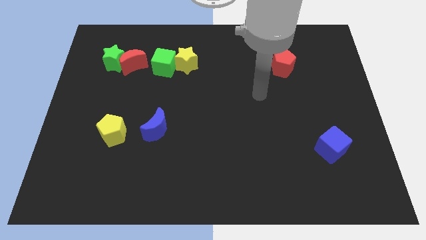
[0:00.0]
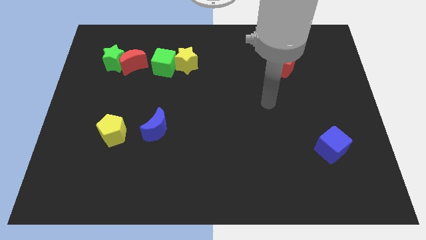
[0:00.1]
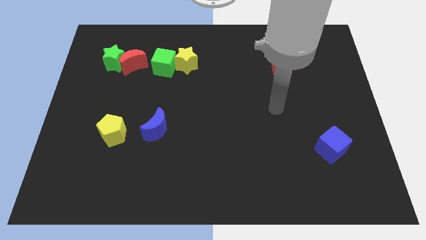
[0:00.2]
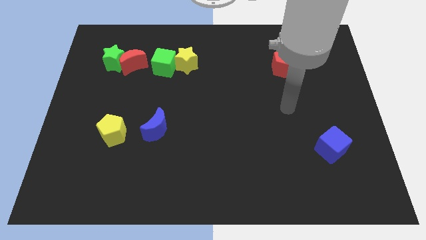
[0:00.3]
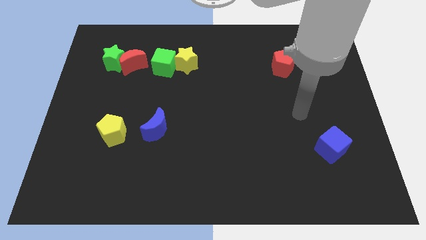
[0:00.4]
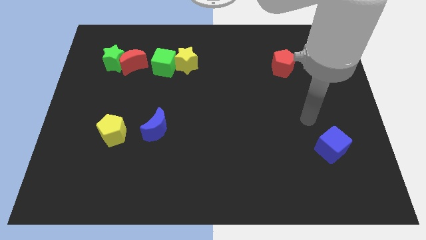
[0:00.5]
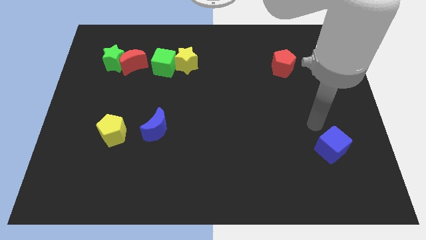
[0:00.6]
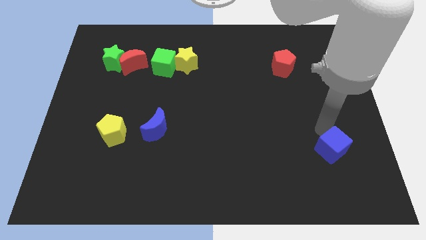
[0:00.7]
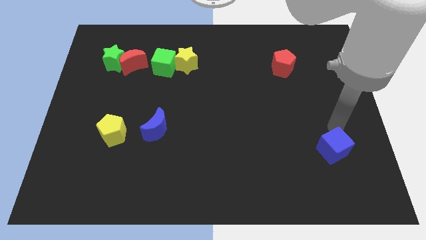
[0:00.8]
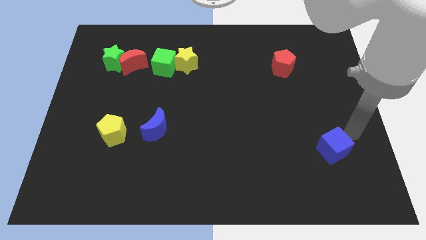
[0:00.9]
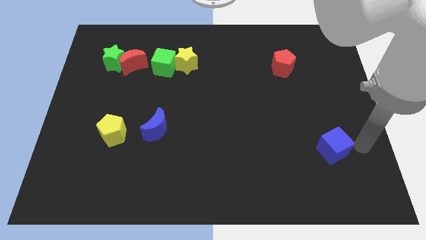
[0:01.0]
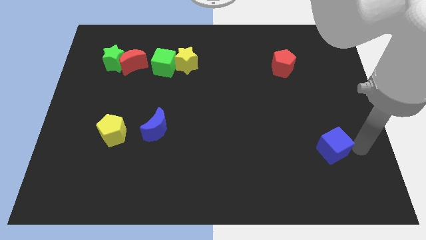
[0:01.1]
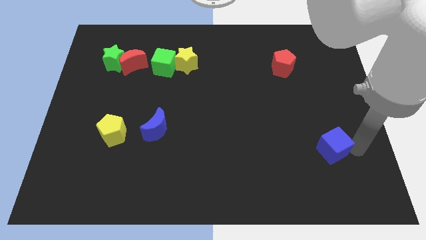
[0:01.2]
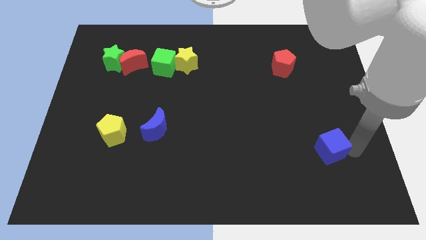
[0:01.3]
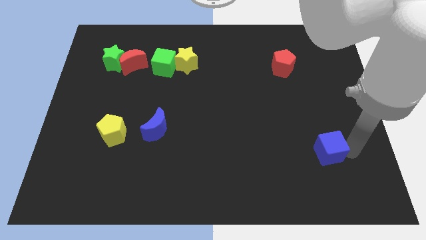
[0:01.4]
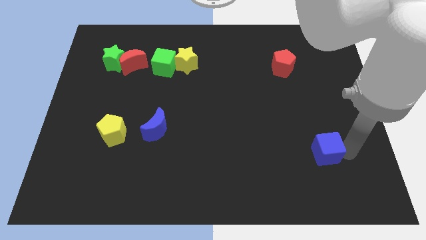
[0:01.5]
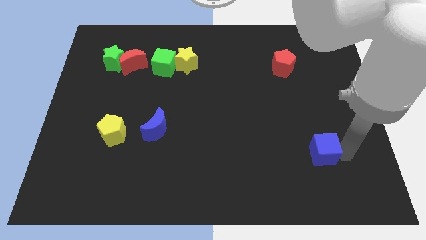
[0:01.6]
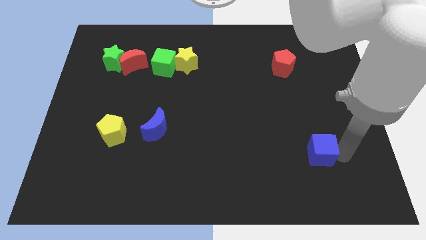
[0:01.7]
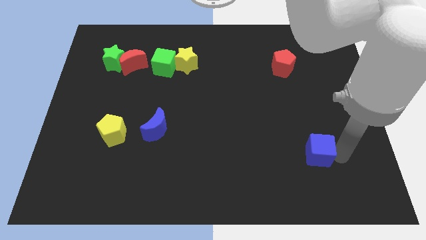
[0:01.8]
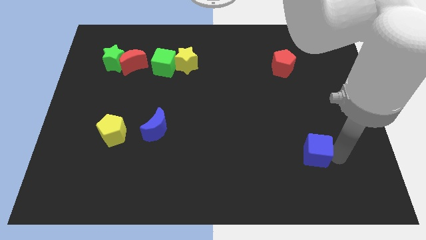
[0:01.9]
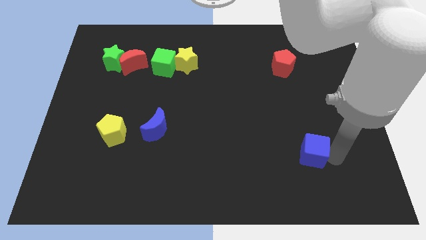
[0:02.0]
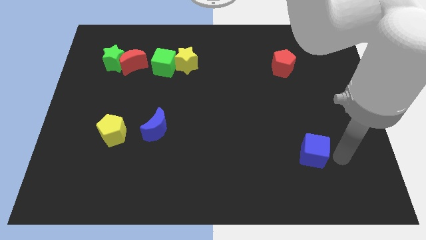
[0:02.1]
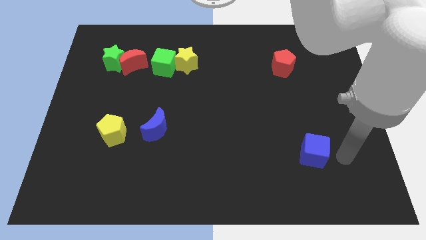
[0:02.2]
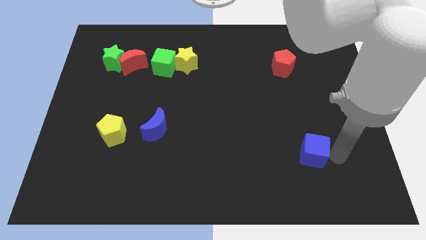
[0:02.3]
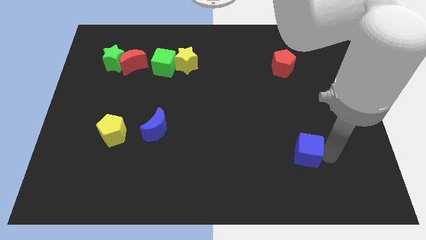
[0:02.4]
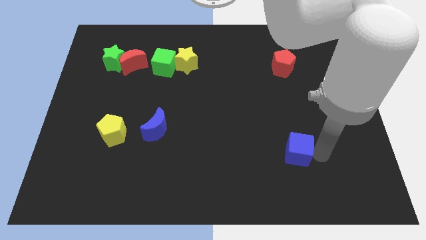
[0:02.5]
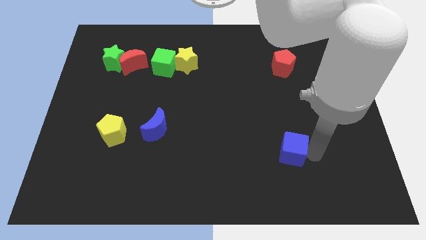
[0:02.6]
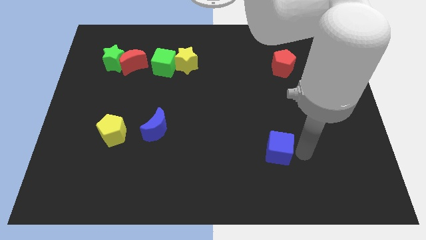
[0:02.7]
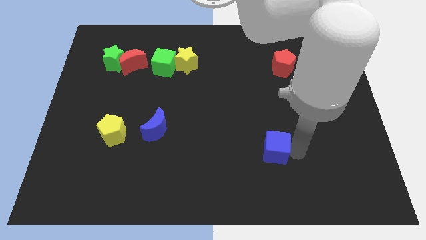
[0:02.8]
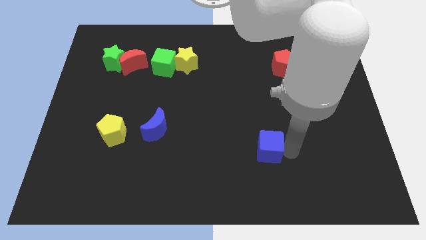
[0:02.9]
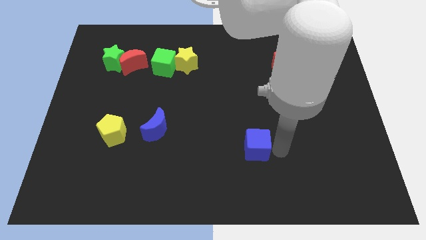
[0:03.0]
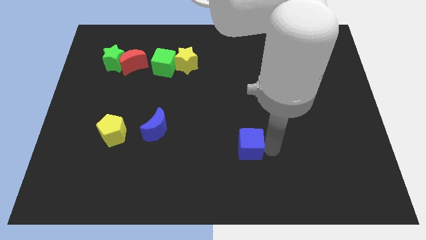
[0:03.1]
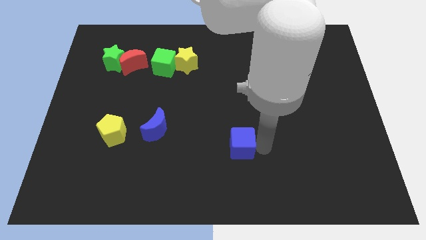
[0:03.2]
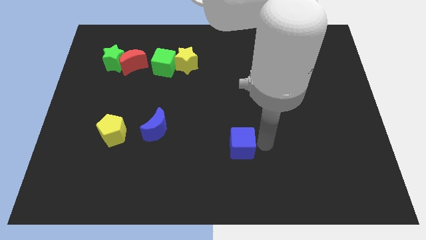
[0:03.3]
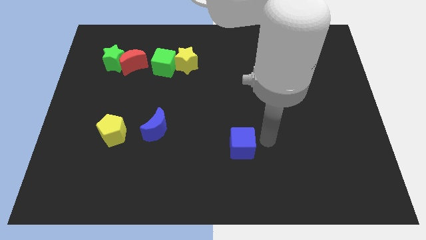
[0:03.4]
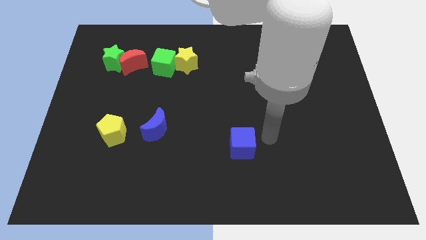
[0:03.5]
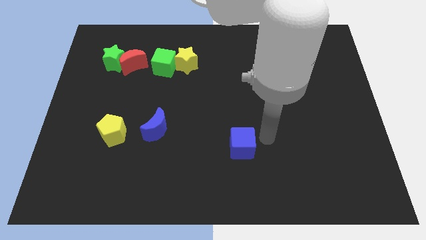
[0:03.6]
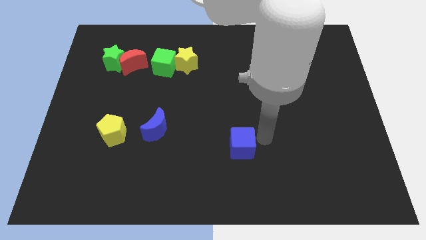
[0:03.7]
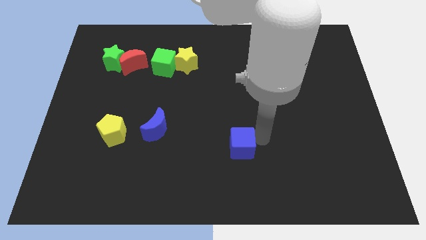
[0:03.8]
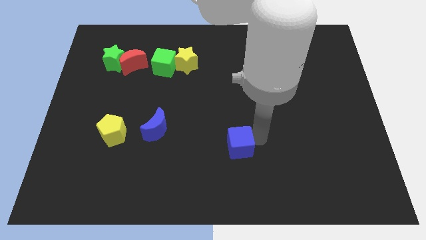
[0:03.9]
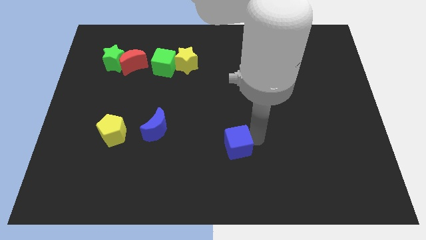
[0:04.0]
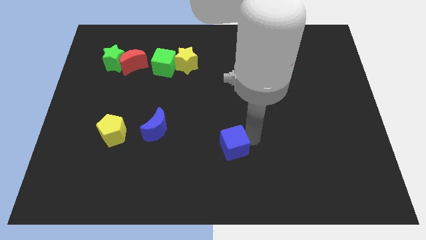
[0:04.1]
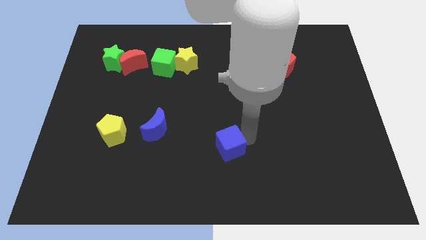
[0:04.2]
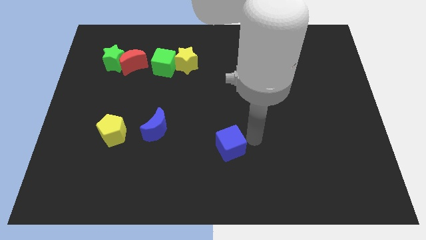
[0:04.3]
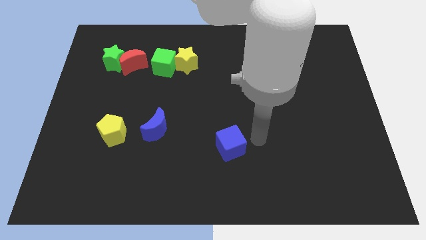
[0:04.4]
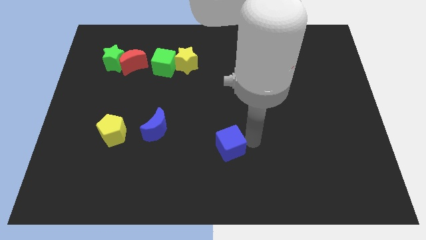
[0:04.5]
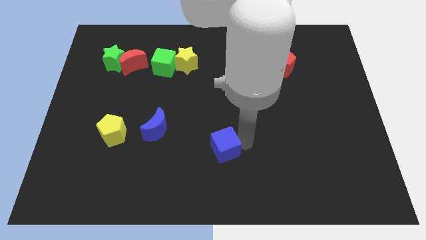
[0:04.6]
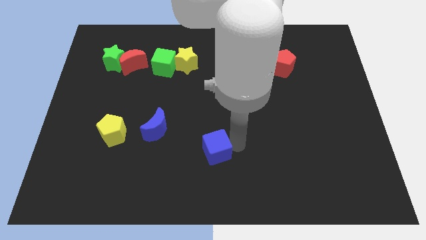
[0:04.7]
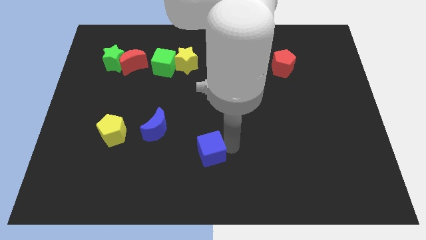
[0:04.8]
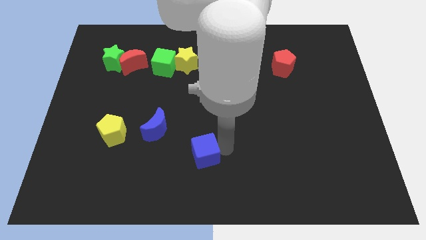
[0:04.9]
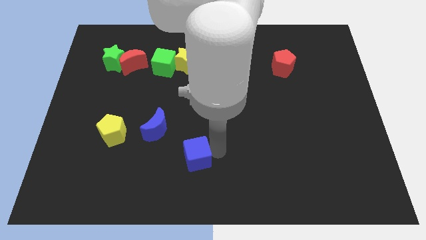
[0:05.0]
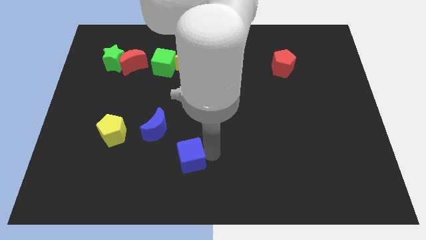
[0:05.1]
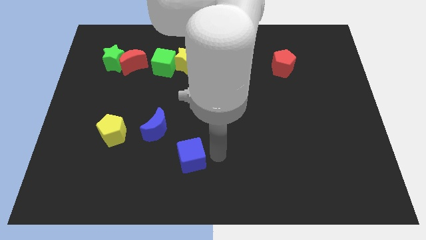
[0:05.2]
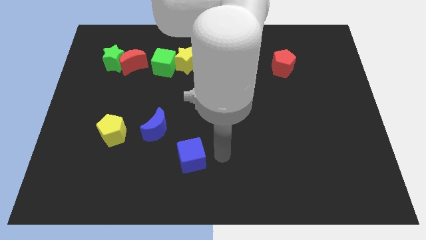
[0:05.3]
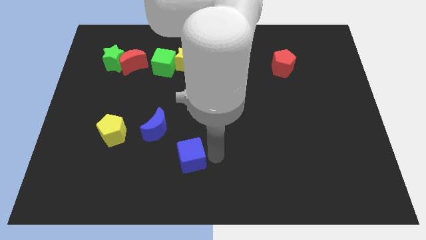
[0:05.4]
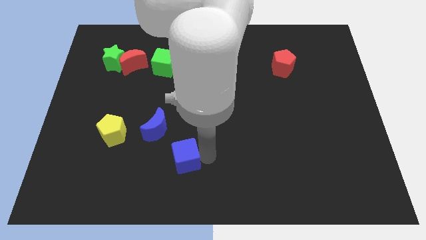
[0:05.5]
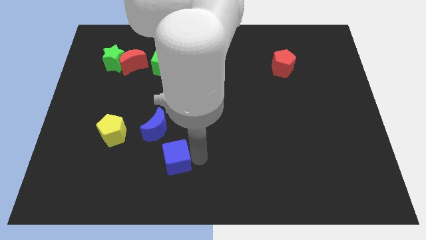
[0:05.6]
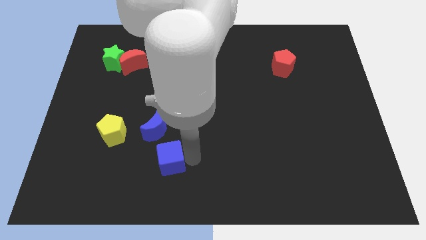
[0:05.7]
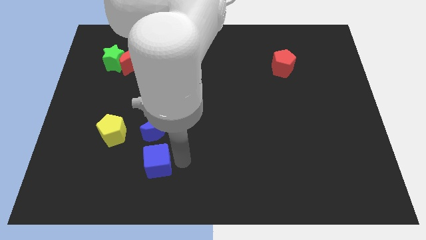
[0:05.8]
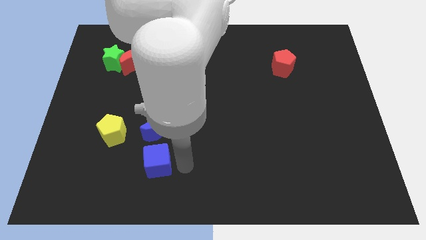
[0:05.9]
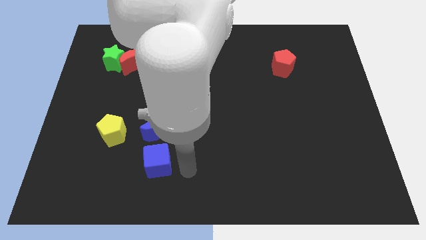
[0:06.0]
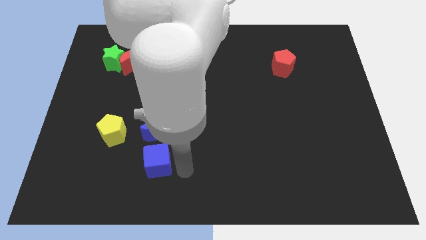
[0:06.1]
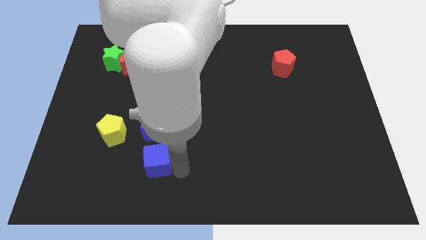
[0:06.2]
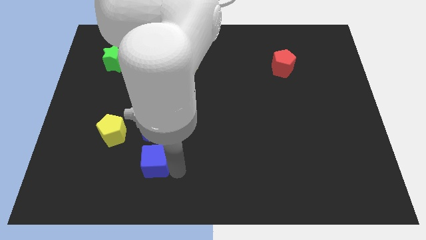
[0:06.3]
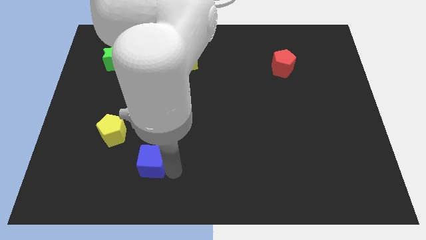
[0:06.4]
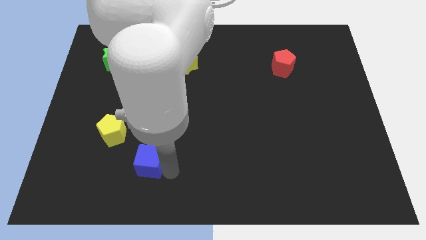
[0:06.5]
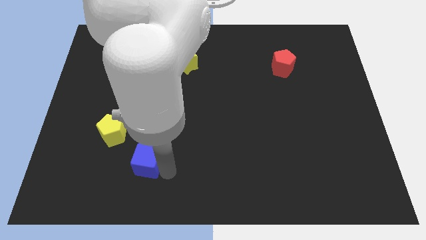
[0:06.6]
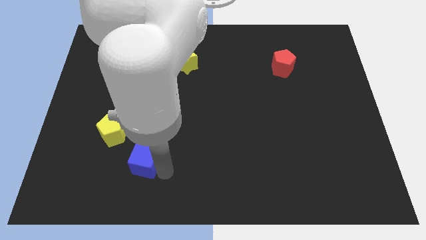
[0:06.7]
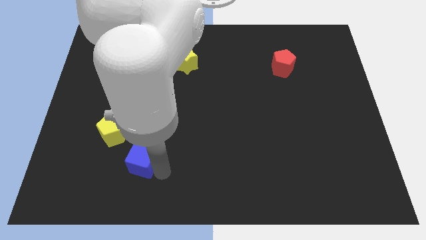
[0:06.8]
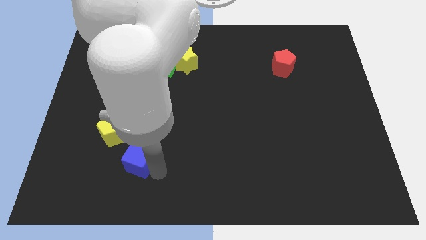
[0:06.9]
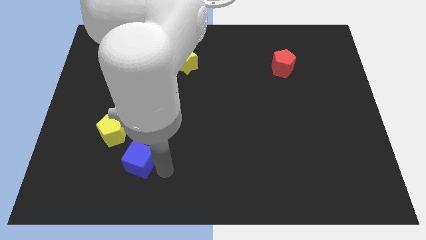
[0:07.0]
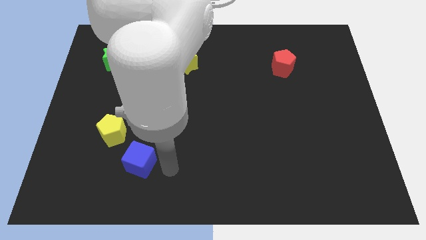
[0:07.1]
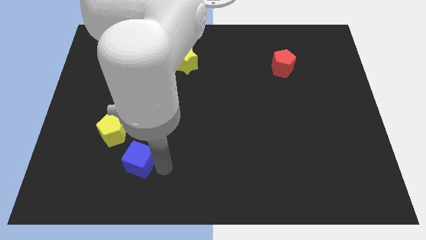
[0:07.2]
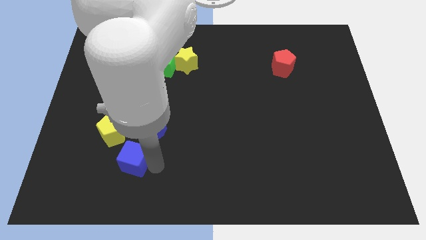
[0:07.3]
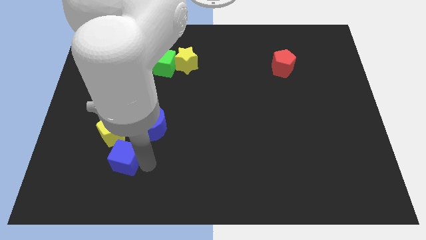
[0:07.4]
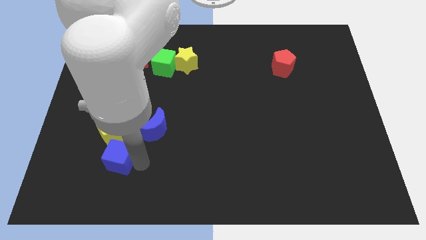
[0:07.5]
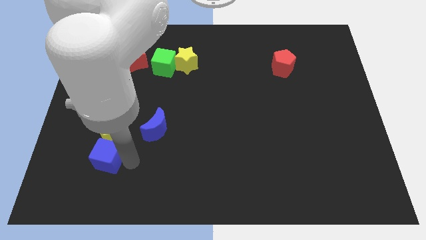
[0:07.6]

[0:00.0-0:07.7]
put the blue cube diagonally down and to the left of the yellow pentagon
